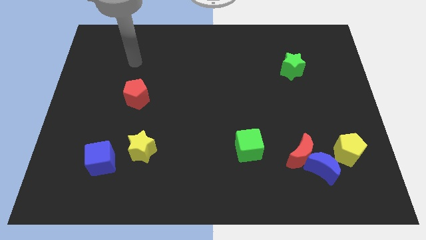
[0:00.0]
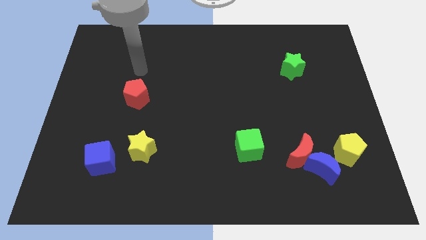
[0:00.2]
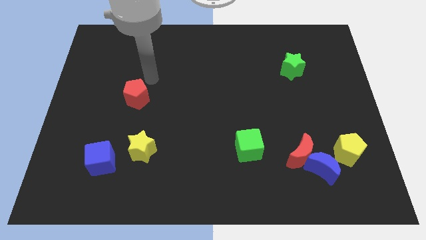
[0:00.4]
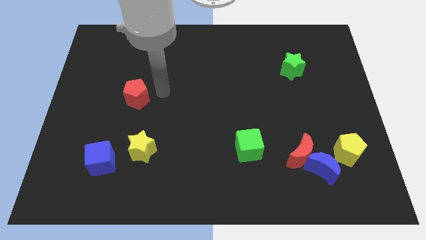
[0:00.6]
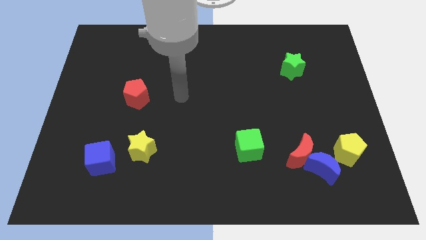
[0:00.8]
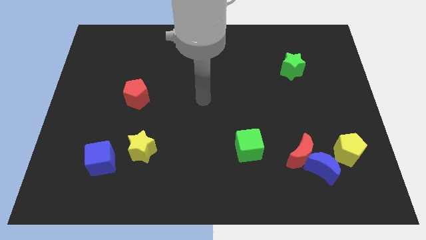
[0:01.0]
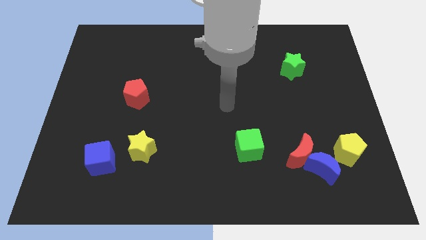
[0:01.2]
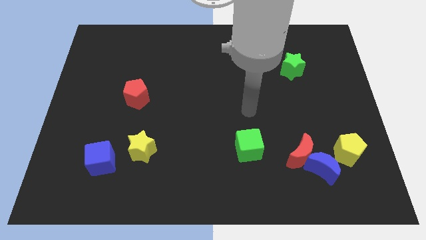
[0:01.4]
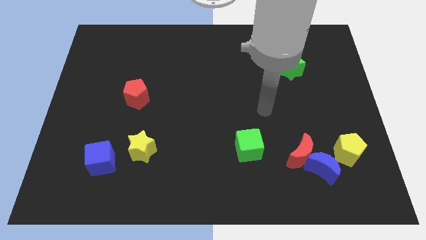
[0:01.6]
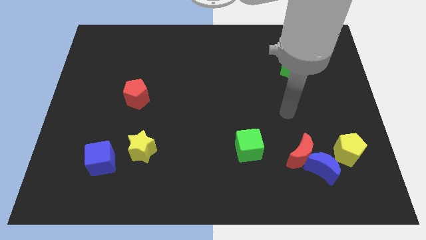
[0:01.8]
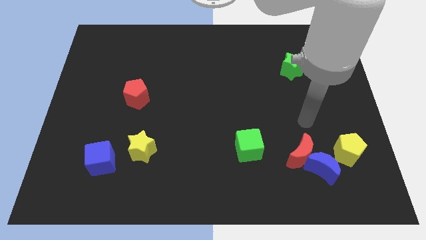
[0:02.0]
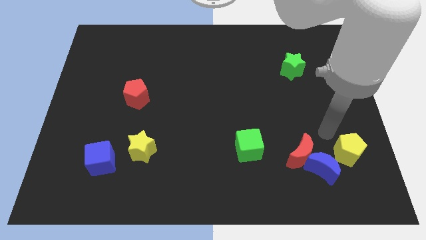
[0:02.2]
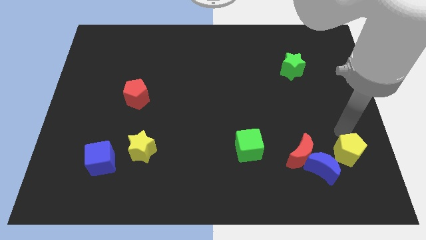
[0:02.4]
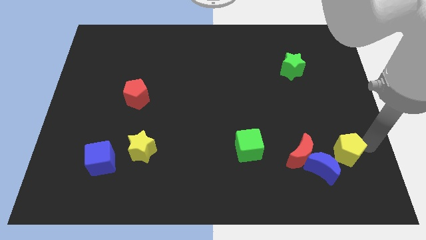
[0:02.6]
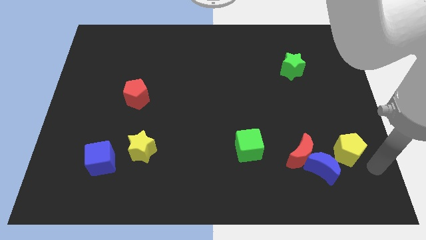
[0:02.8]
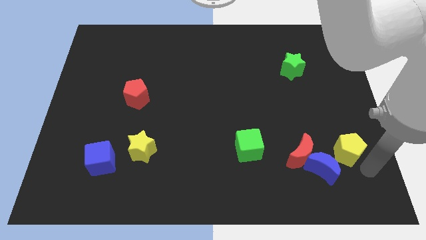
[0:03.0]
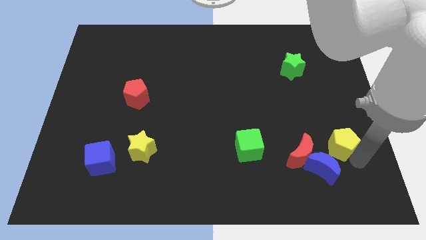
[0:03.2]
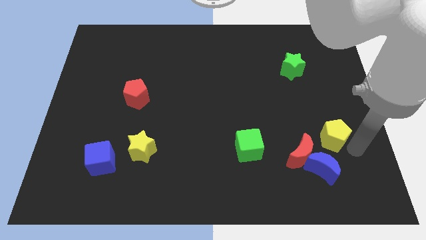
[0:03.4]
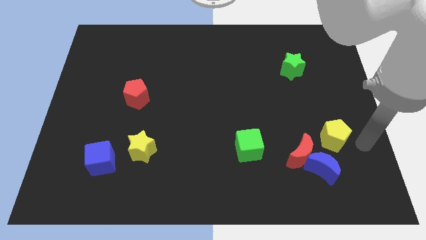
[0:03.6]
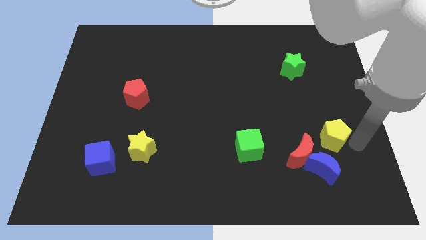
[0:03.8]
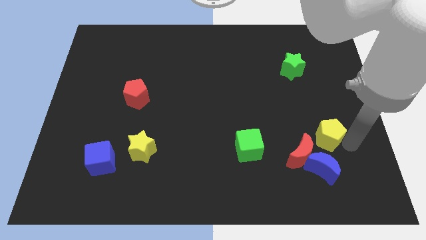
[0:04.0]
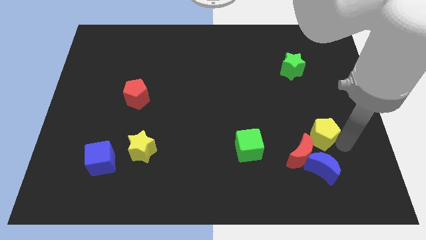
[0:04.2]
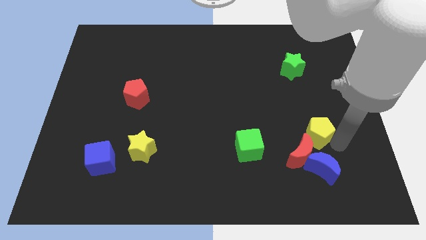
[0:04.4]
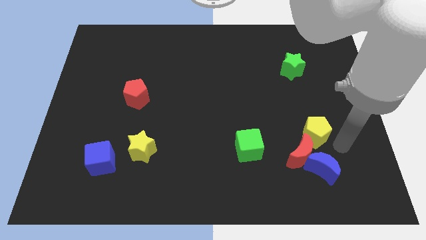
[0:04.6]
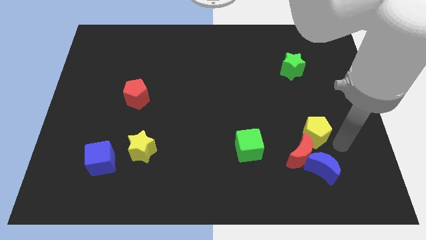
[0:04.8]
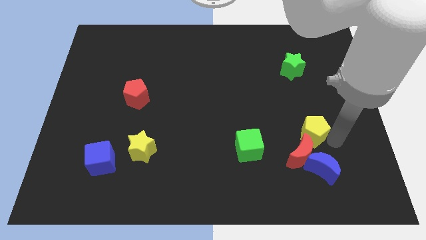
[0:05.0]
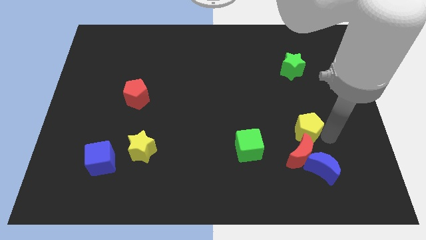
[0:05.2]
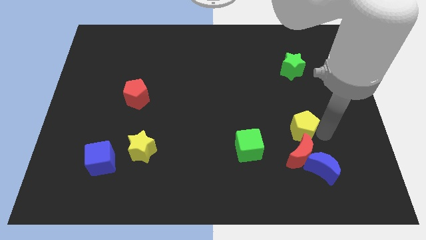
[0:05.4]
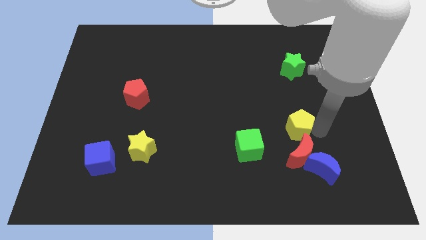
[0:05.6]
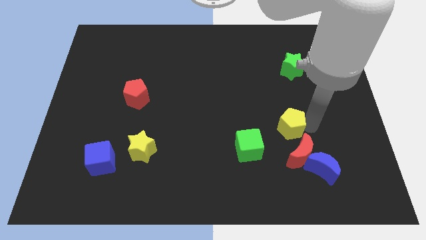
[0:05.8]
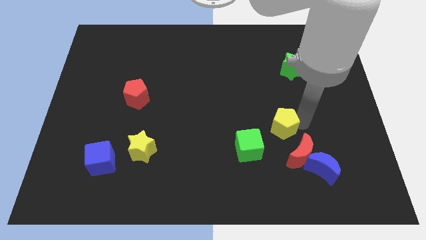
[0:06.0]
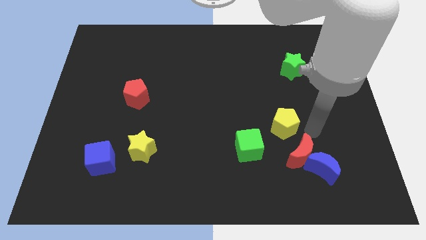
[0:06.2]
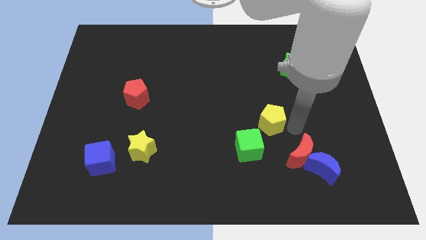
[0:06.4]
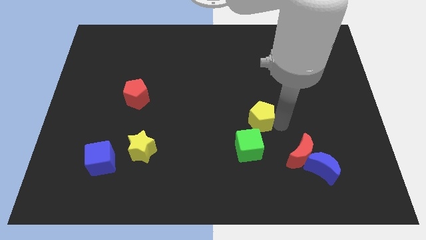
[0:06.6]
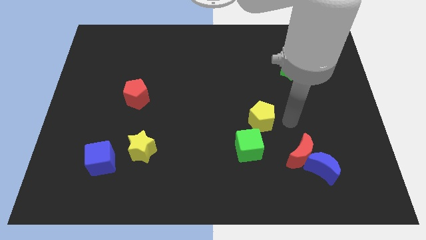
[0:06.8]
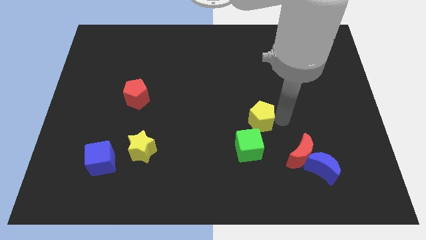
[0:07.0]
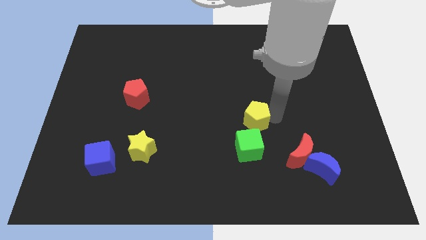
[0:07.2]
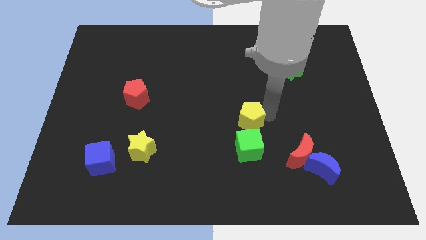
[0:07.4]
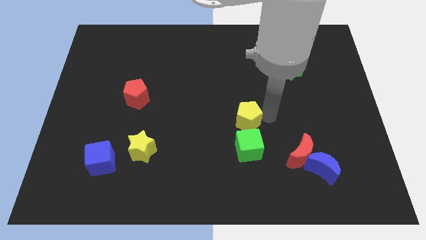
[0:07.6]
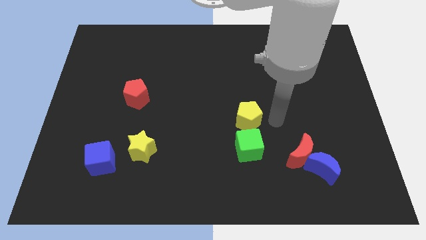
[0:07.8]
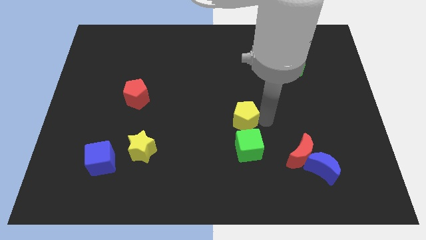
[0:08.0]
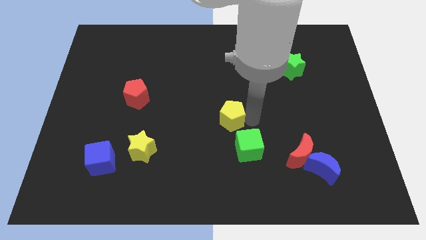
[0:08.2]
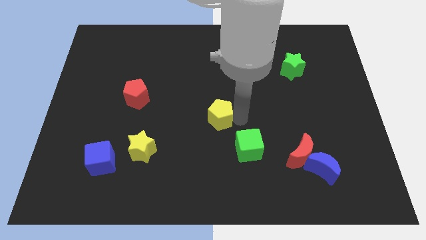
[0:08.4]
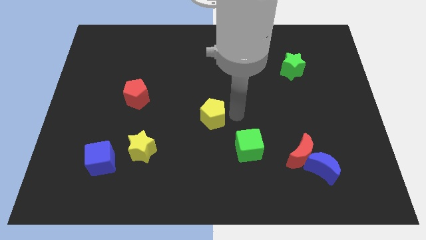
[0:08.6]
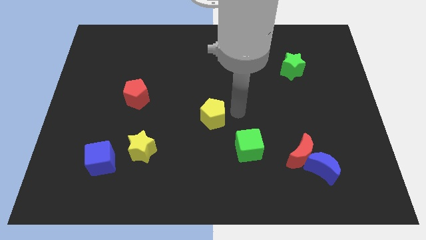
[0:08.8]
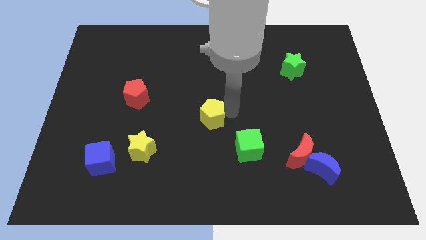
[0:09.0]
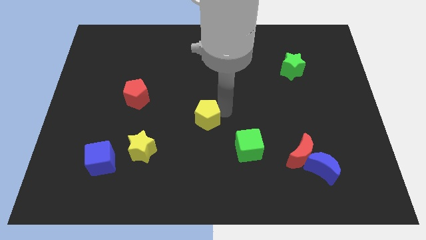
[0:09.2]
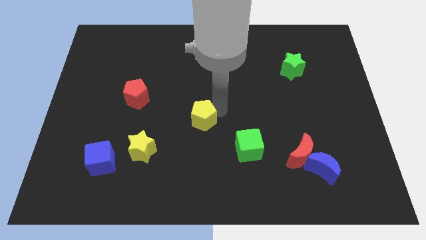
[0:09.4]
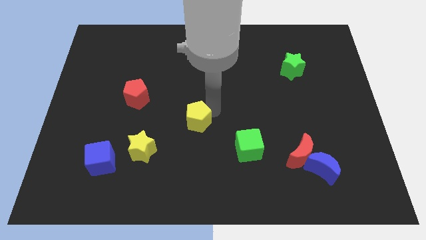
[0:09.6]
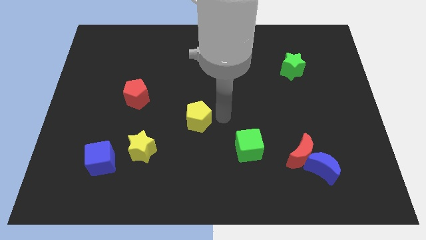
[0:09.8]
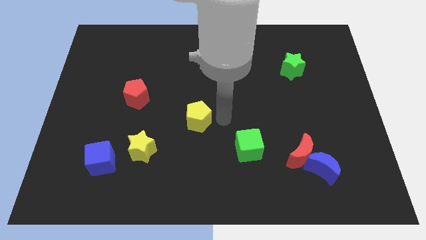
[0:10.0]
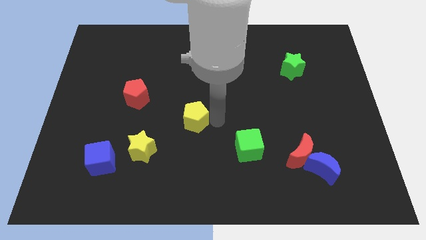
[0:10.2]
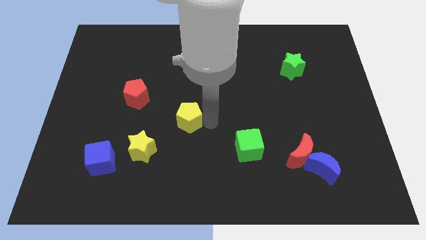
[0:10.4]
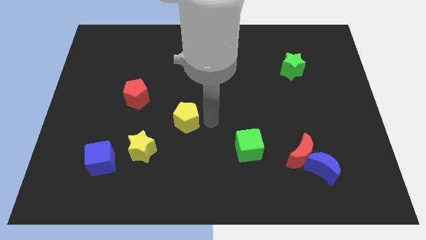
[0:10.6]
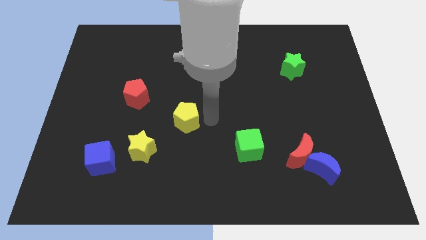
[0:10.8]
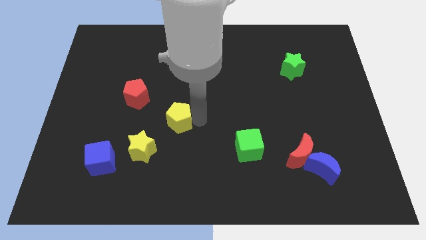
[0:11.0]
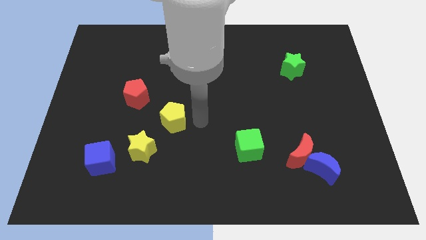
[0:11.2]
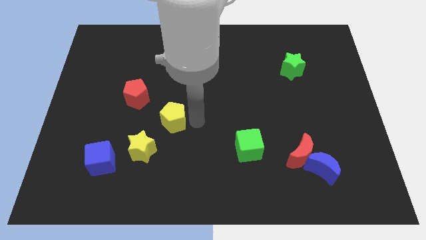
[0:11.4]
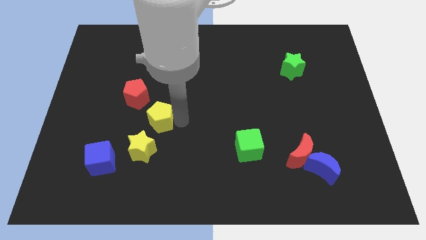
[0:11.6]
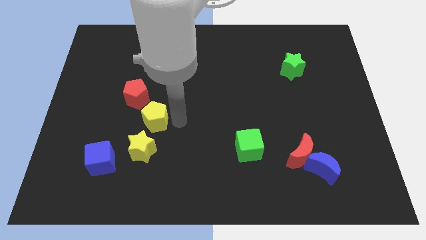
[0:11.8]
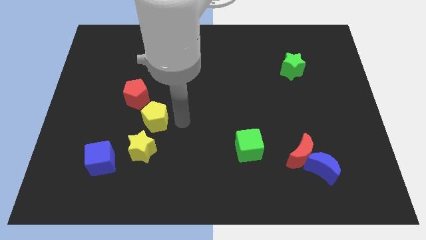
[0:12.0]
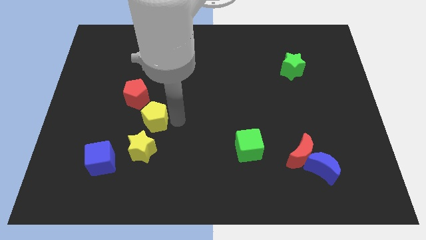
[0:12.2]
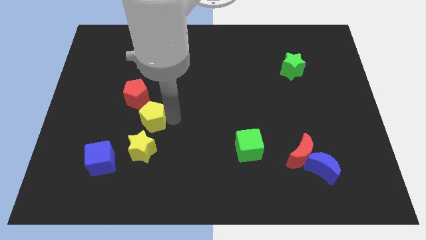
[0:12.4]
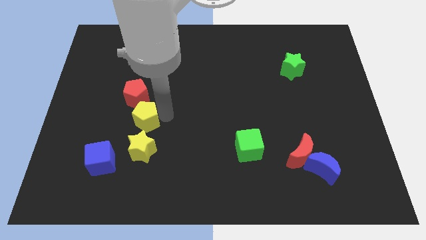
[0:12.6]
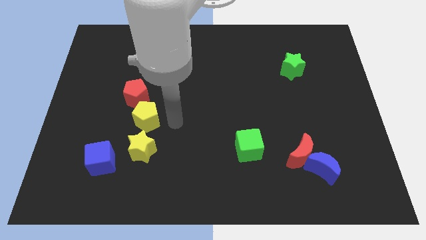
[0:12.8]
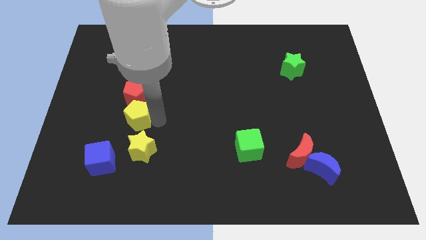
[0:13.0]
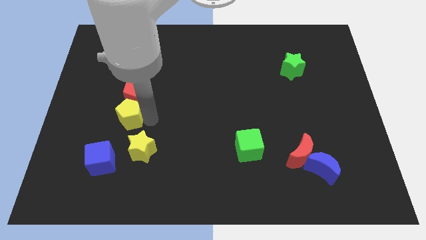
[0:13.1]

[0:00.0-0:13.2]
push the yellow pentagon to the bottom left of the red pentagon
